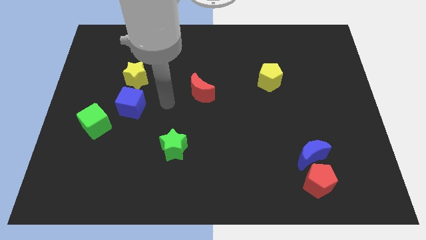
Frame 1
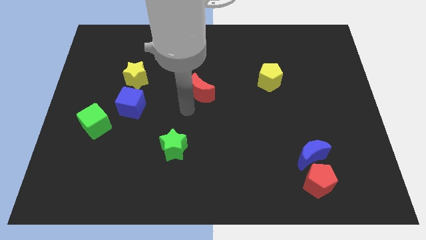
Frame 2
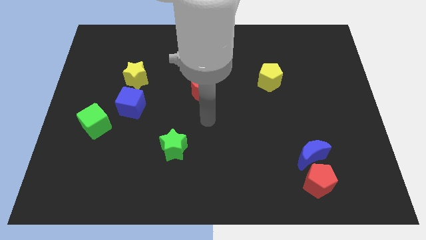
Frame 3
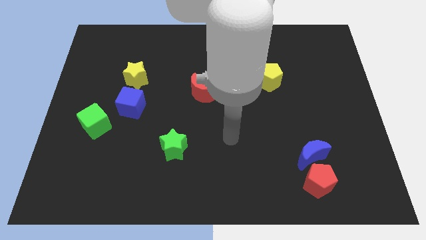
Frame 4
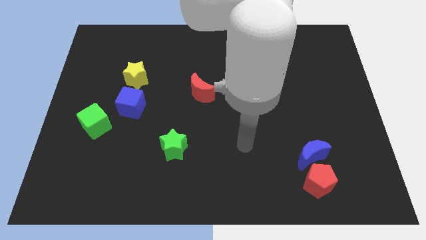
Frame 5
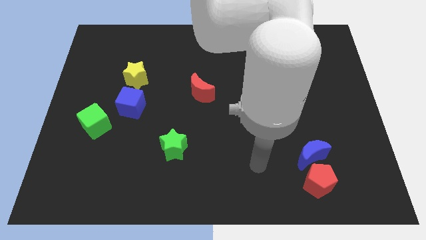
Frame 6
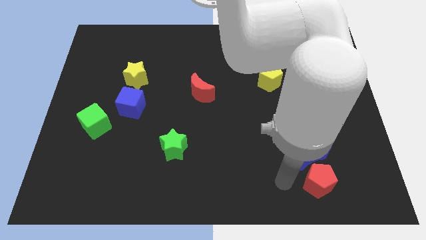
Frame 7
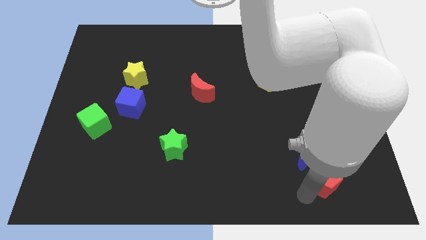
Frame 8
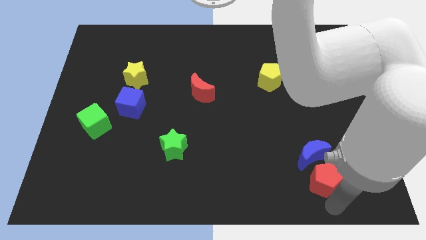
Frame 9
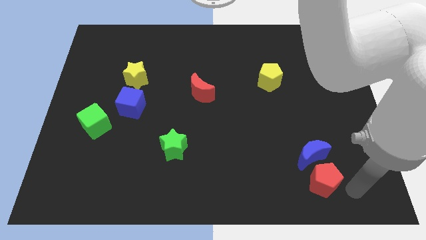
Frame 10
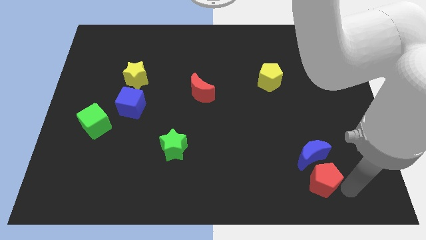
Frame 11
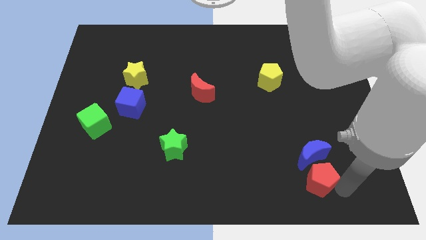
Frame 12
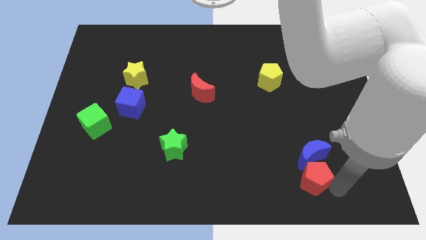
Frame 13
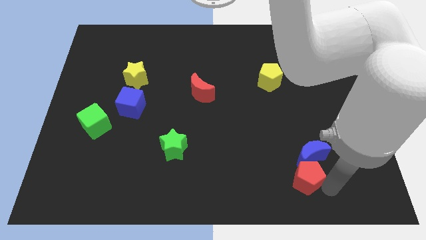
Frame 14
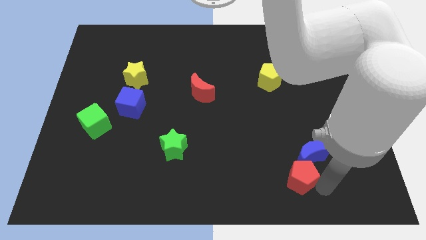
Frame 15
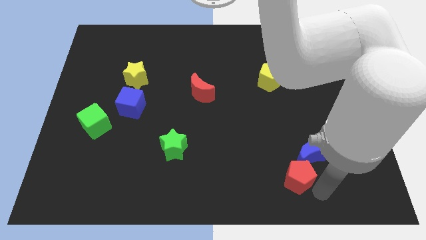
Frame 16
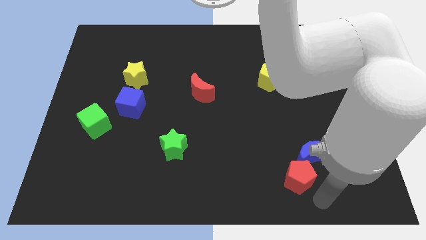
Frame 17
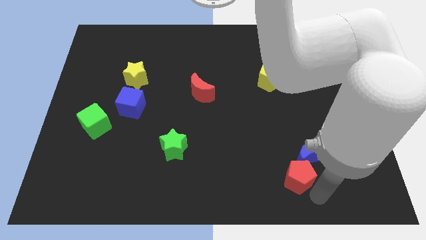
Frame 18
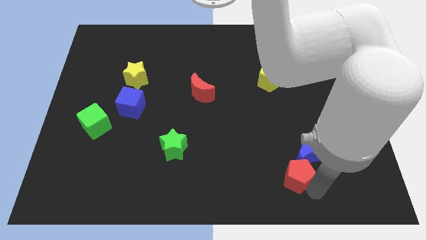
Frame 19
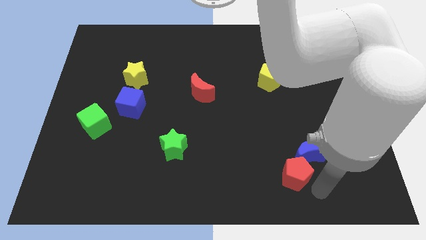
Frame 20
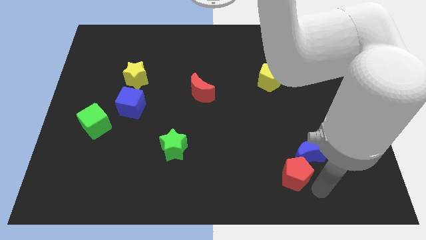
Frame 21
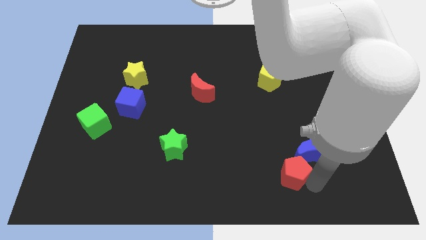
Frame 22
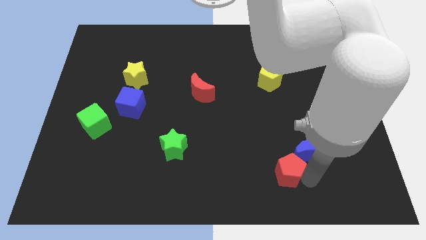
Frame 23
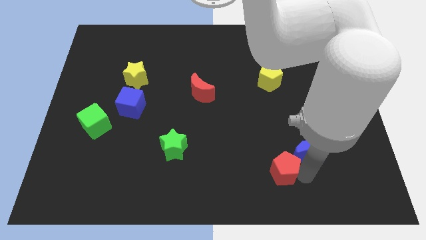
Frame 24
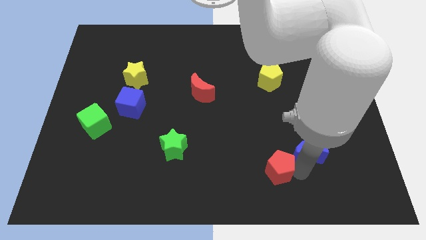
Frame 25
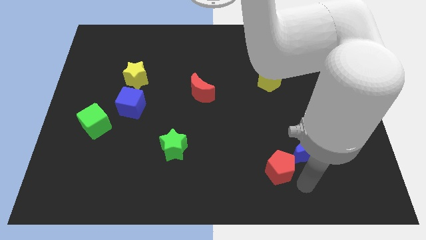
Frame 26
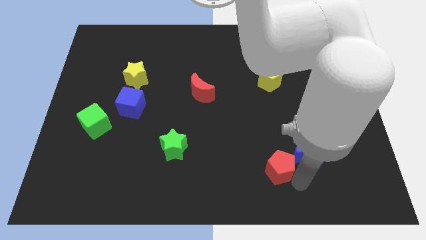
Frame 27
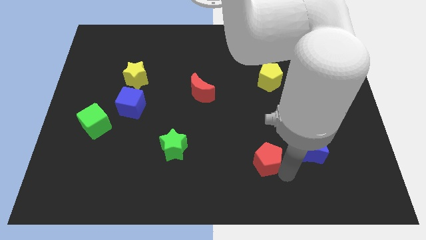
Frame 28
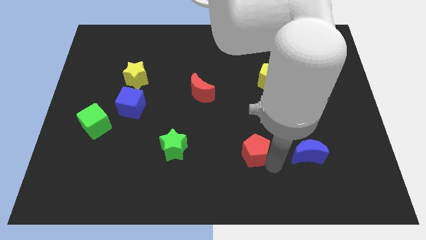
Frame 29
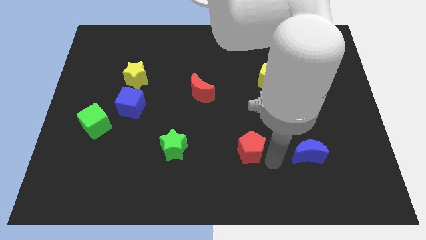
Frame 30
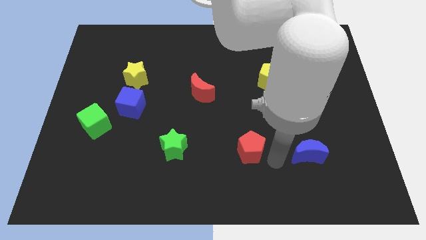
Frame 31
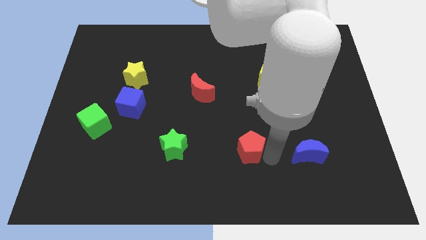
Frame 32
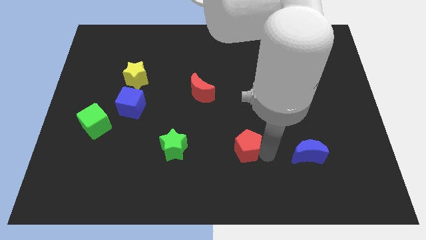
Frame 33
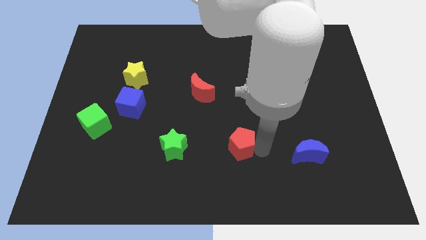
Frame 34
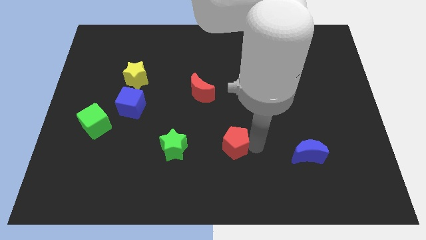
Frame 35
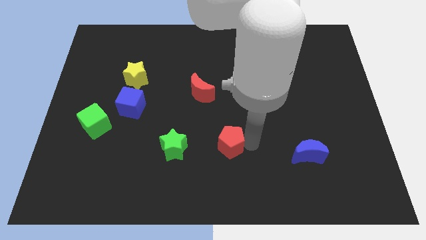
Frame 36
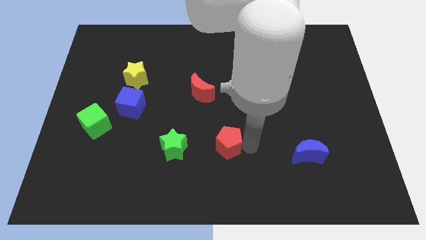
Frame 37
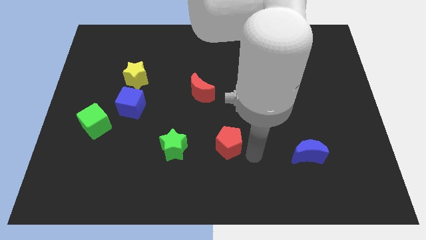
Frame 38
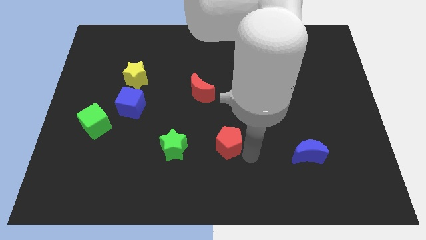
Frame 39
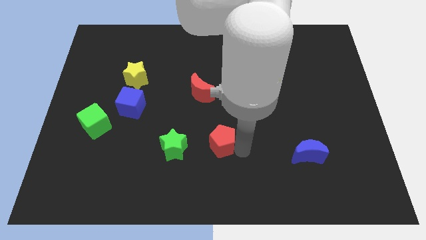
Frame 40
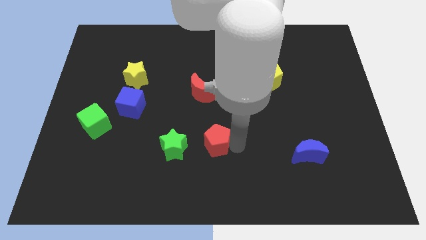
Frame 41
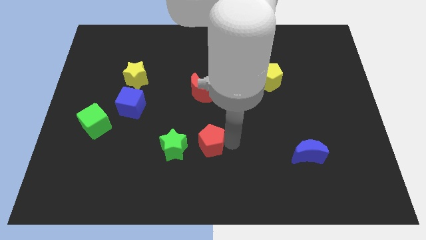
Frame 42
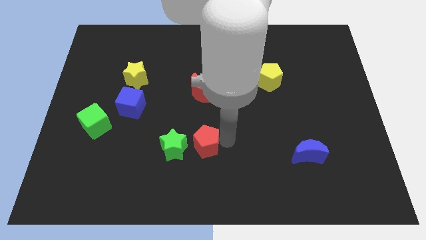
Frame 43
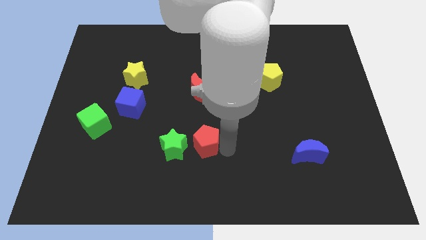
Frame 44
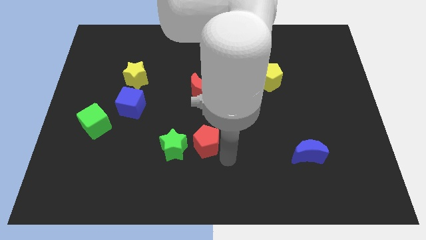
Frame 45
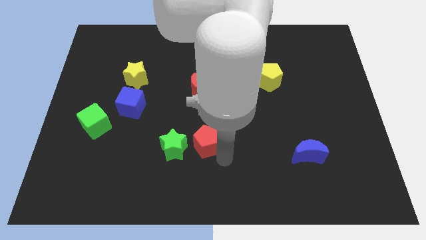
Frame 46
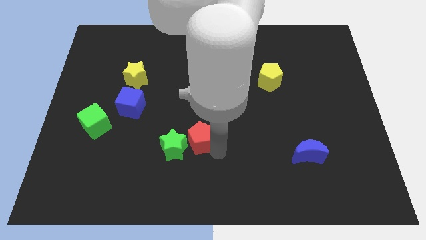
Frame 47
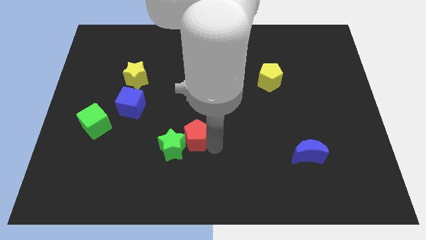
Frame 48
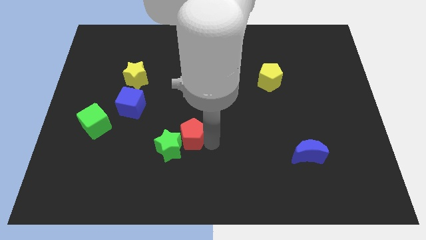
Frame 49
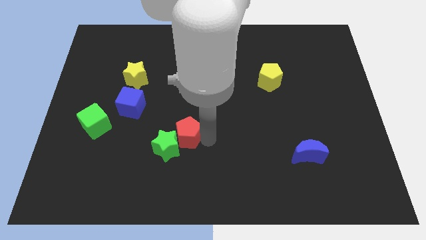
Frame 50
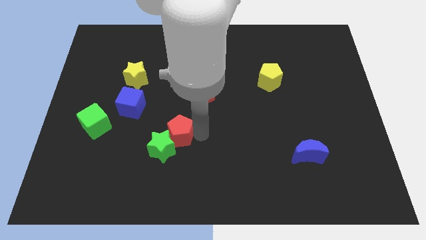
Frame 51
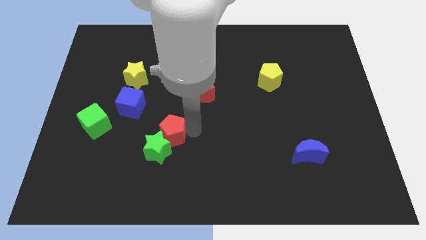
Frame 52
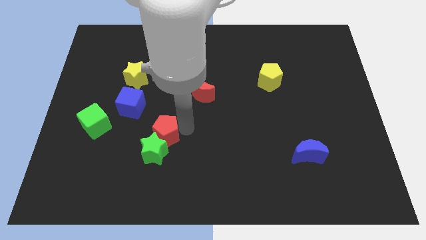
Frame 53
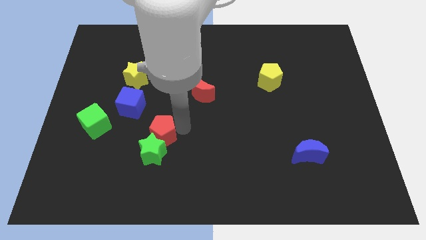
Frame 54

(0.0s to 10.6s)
push the red pentagon just right of the green cube

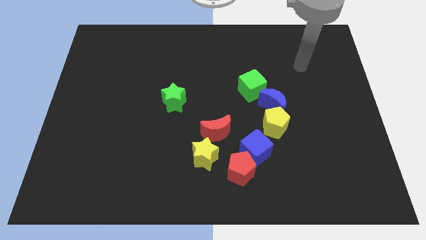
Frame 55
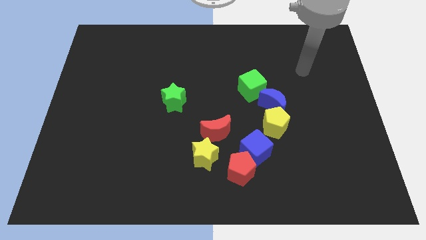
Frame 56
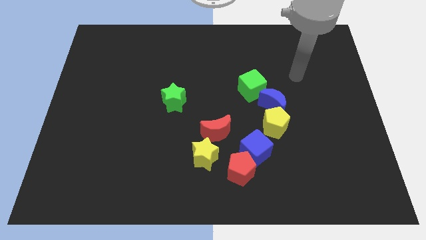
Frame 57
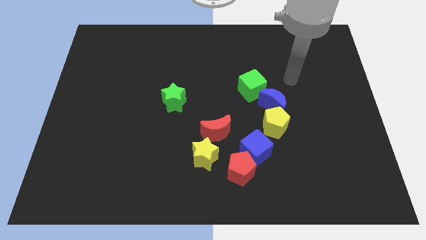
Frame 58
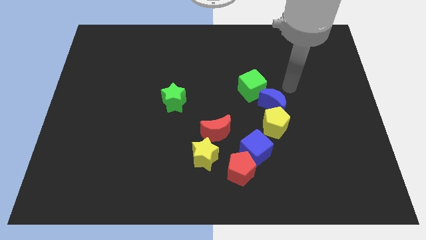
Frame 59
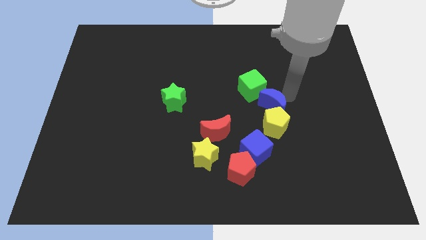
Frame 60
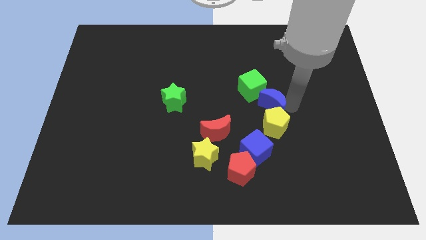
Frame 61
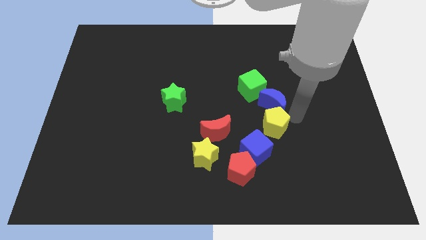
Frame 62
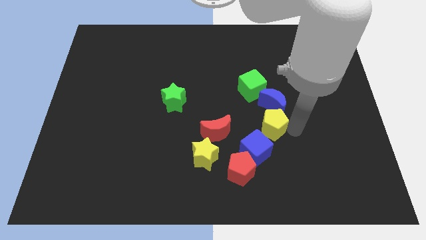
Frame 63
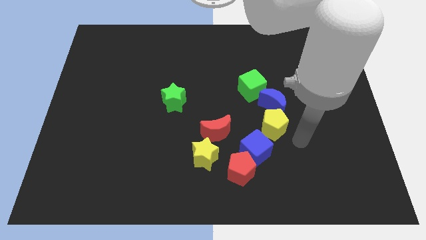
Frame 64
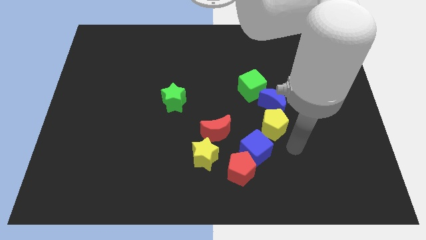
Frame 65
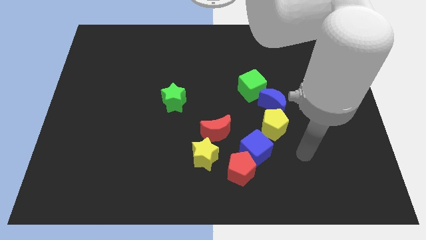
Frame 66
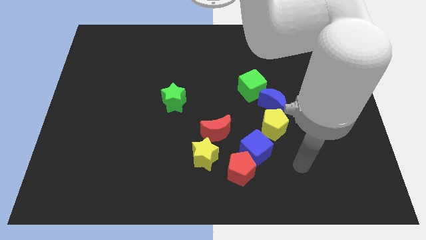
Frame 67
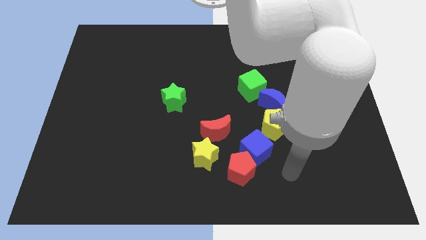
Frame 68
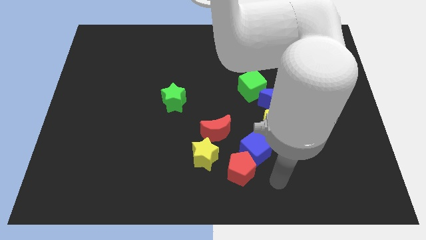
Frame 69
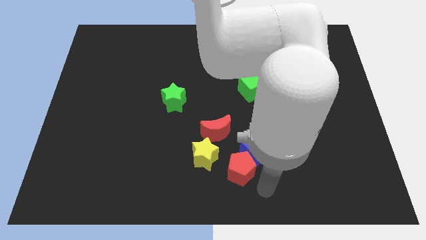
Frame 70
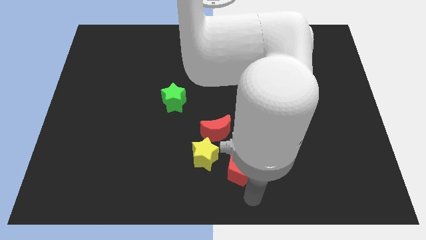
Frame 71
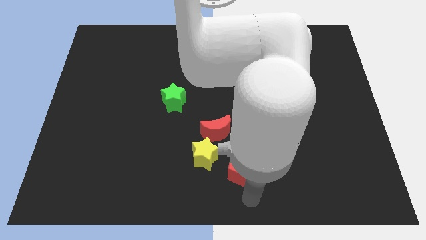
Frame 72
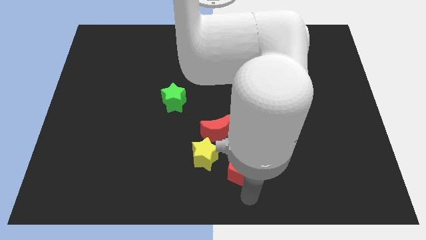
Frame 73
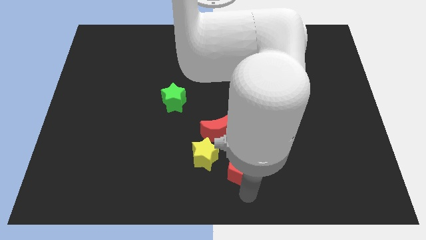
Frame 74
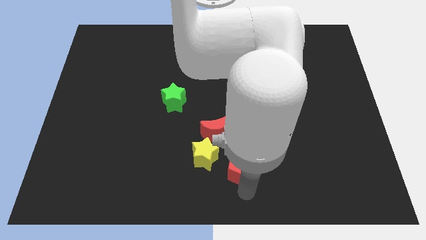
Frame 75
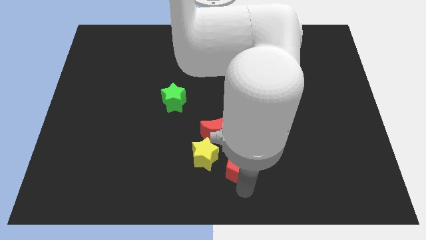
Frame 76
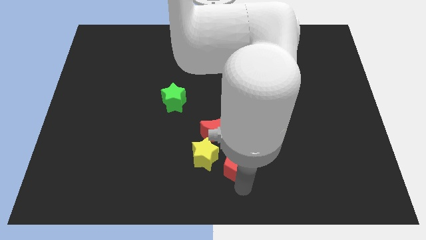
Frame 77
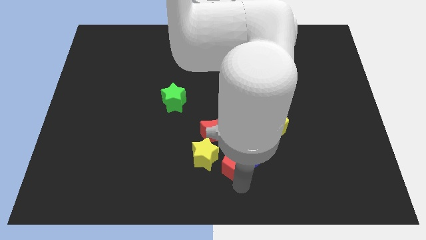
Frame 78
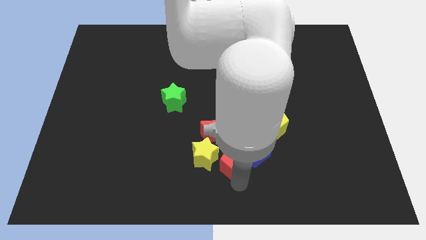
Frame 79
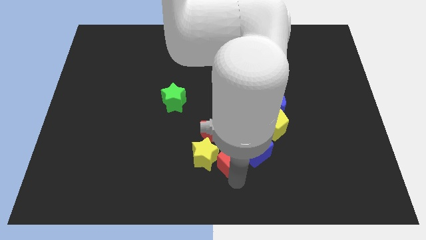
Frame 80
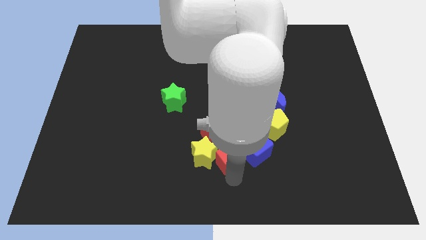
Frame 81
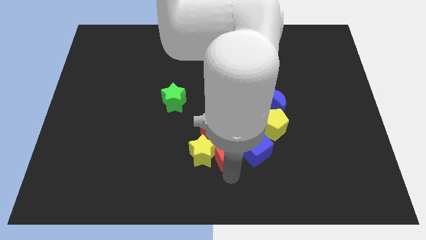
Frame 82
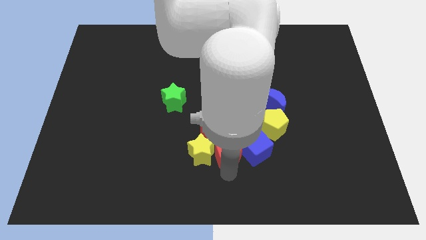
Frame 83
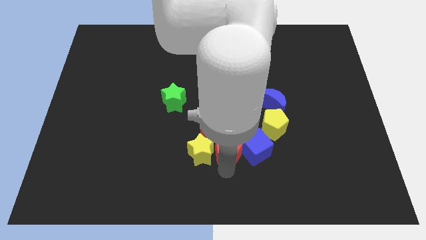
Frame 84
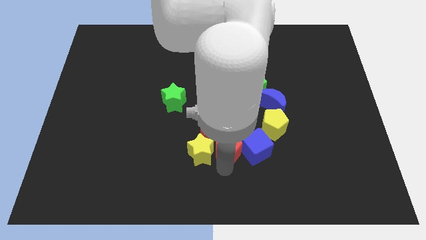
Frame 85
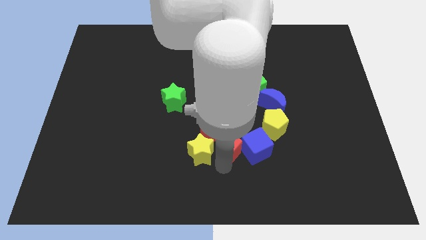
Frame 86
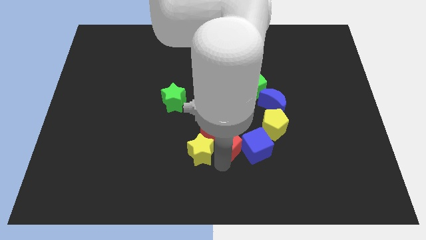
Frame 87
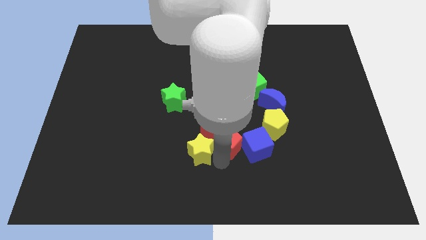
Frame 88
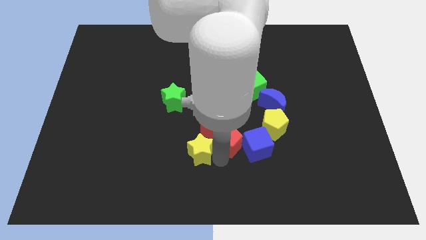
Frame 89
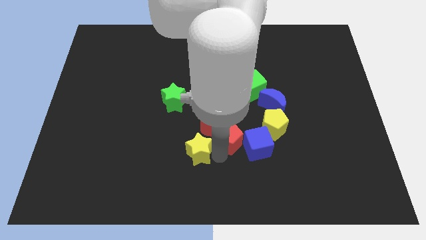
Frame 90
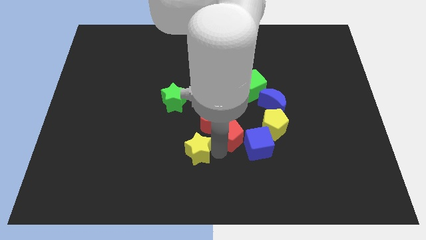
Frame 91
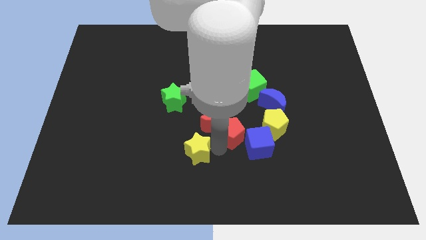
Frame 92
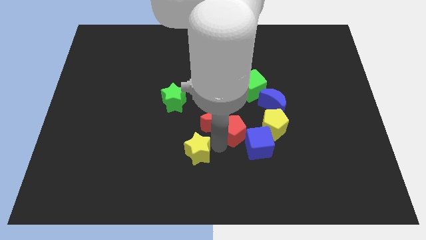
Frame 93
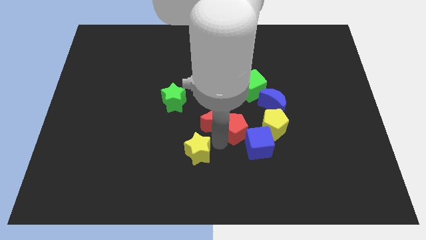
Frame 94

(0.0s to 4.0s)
push the red pentagon to the bottom side of the green cube
